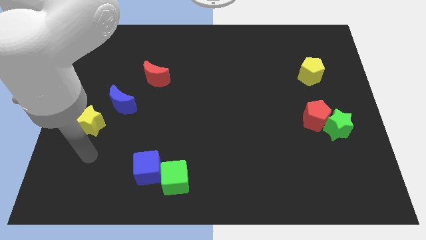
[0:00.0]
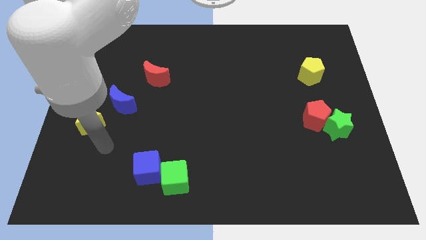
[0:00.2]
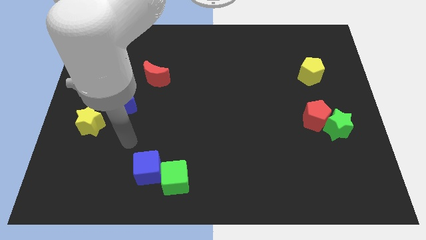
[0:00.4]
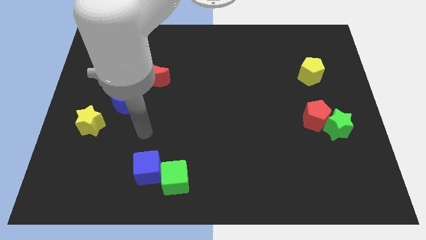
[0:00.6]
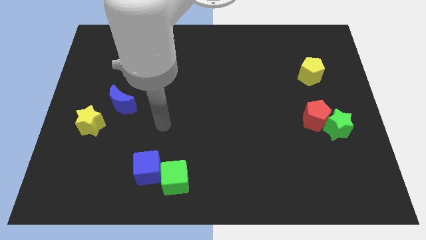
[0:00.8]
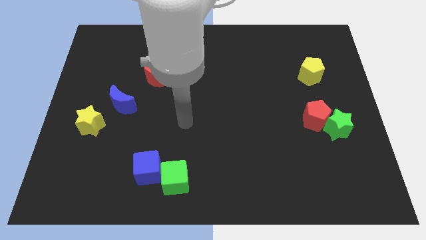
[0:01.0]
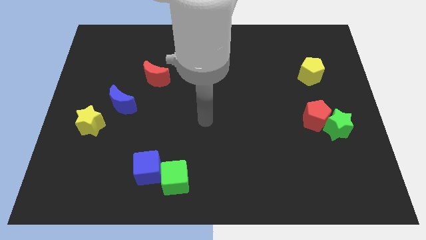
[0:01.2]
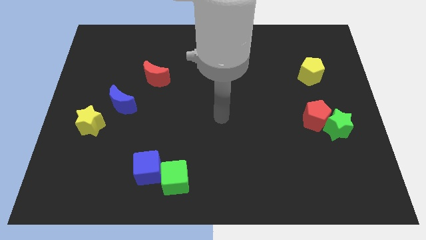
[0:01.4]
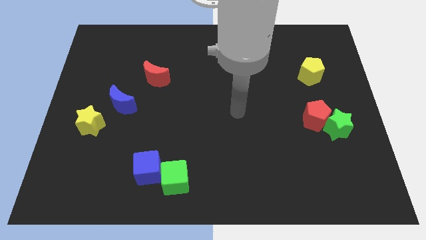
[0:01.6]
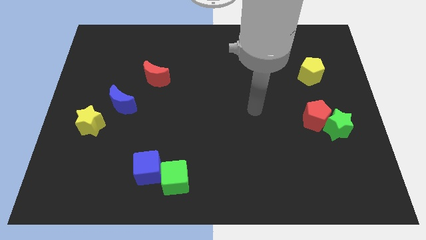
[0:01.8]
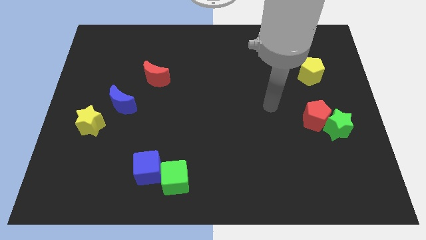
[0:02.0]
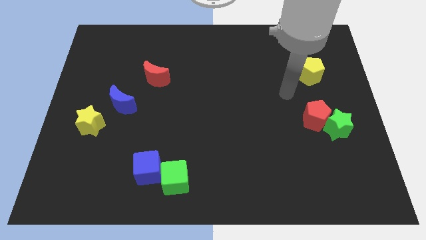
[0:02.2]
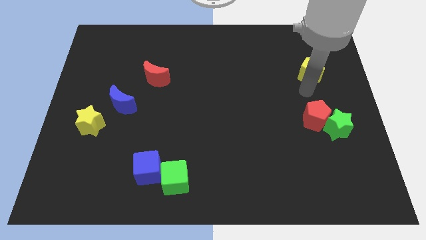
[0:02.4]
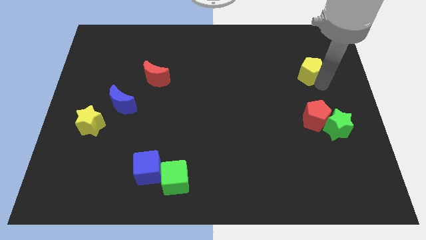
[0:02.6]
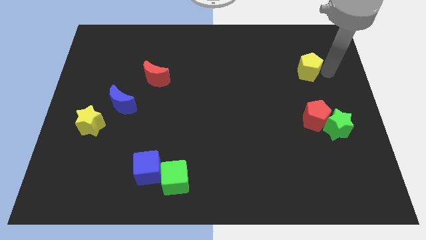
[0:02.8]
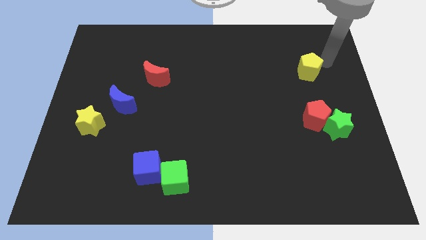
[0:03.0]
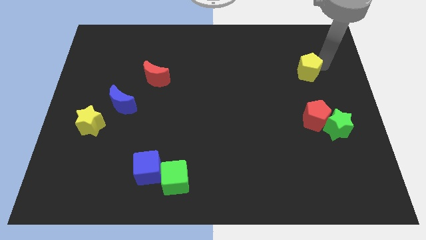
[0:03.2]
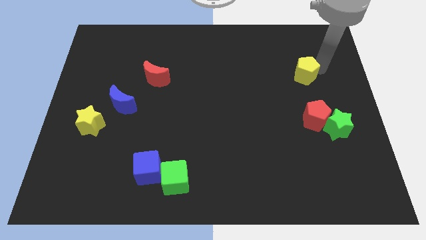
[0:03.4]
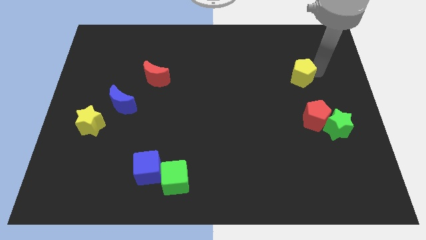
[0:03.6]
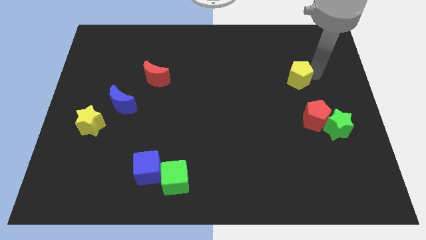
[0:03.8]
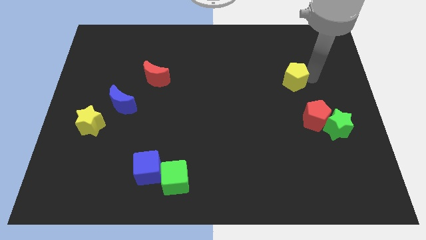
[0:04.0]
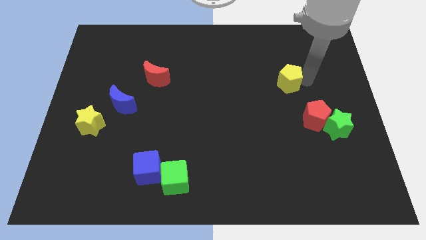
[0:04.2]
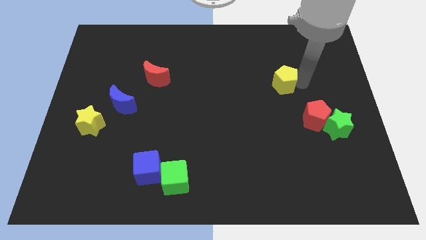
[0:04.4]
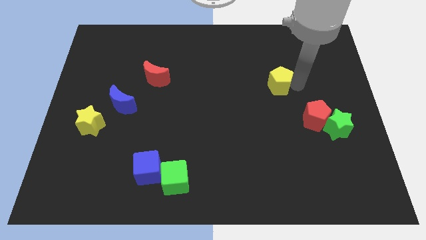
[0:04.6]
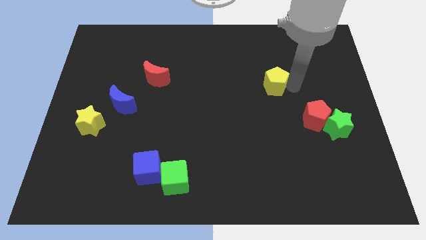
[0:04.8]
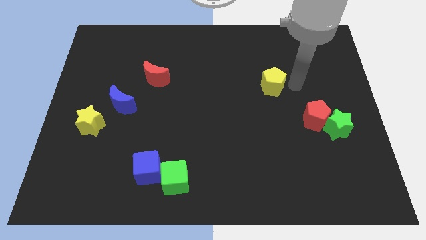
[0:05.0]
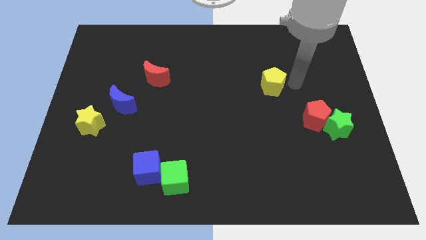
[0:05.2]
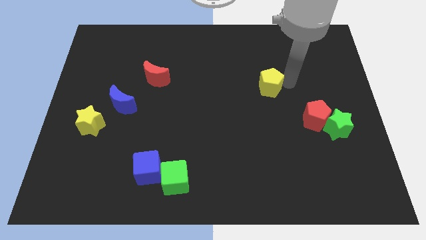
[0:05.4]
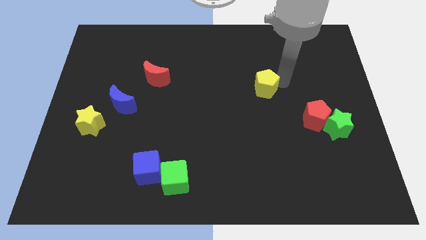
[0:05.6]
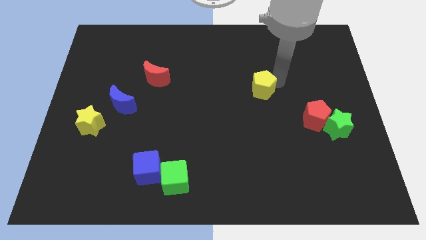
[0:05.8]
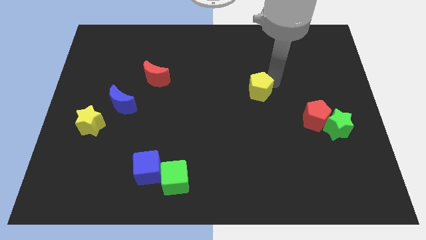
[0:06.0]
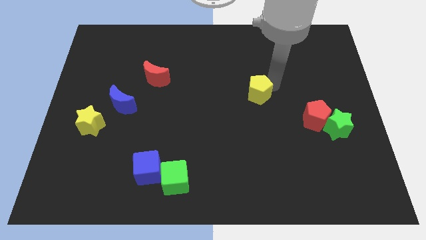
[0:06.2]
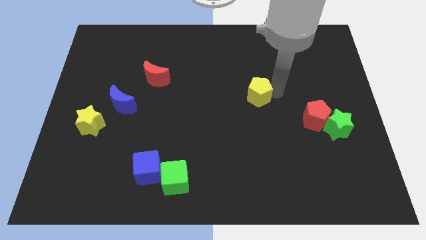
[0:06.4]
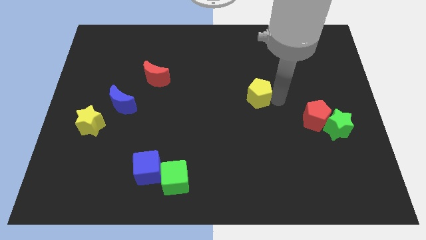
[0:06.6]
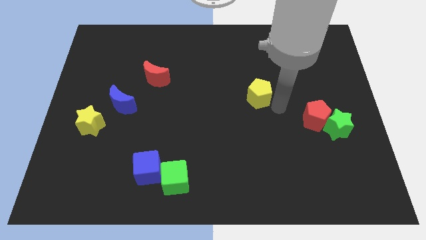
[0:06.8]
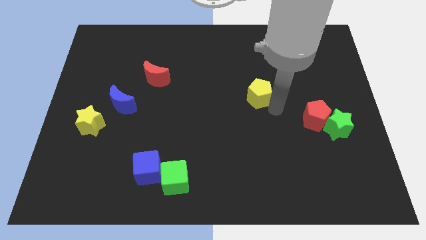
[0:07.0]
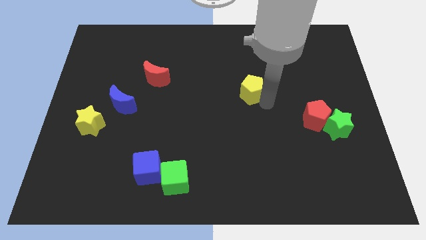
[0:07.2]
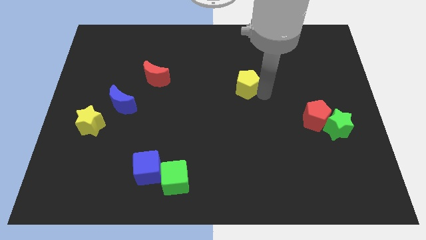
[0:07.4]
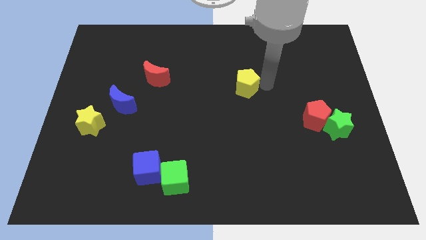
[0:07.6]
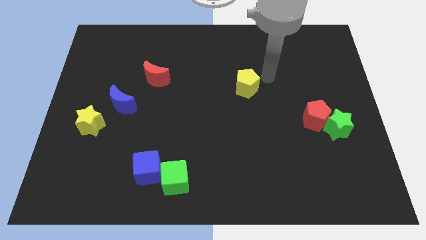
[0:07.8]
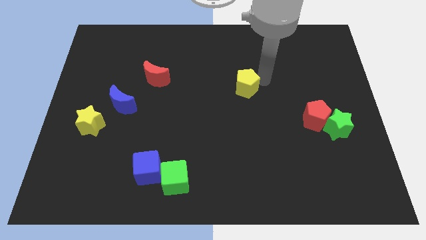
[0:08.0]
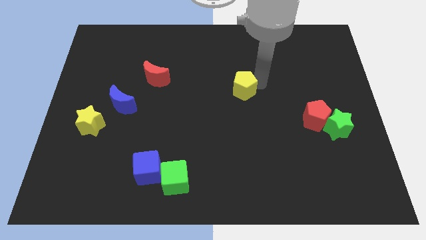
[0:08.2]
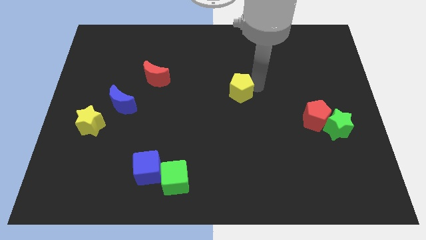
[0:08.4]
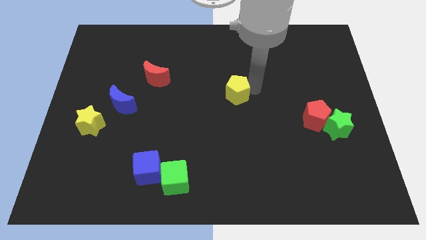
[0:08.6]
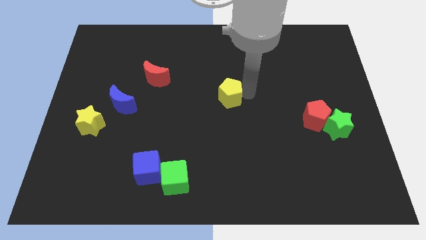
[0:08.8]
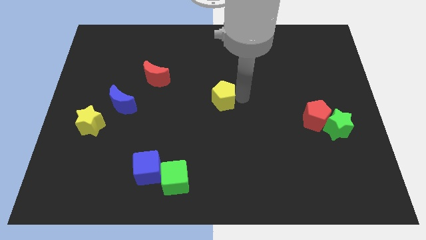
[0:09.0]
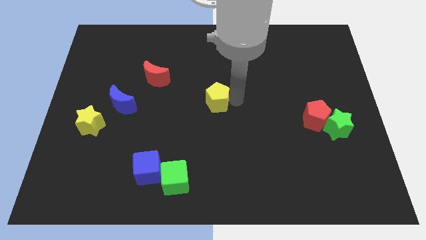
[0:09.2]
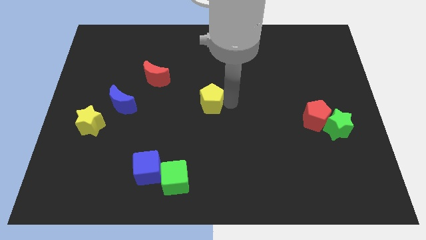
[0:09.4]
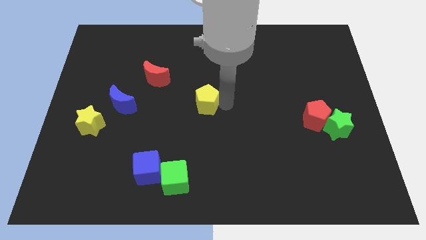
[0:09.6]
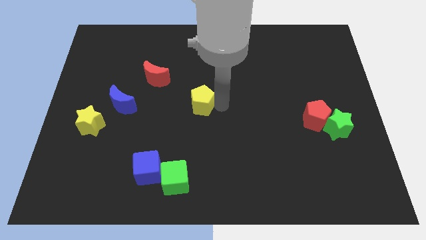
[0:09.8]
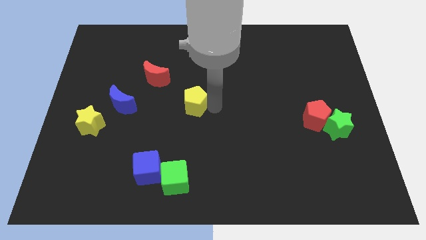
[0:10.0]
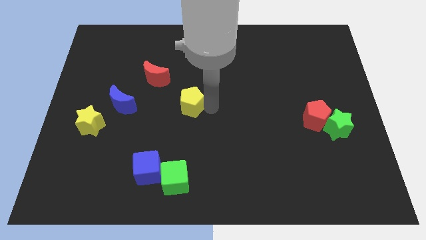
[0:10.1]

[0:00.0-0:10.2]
slide the yellow pentagon right of the blue moon
